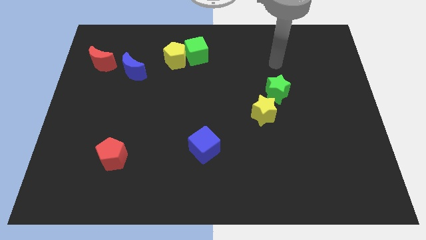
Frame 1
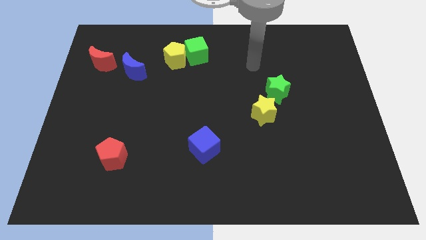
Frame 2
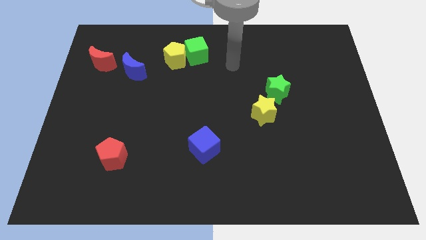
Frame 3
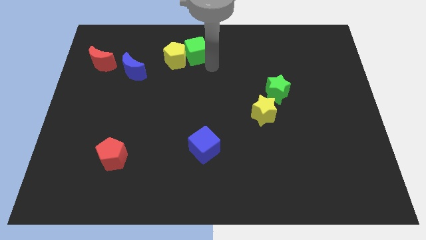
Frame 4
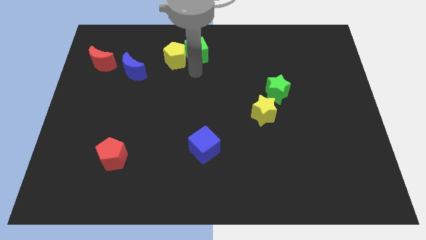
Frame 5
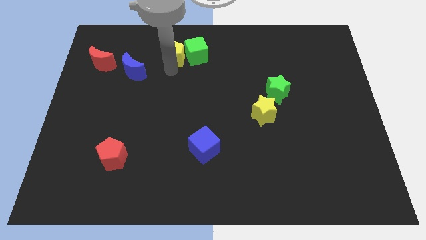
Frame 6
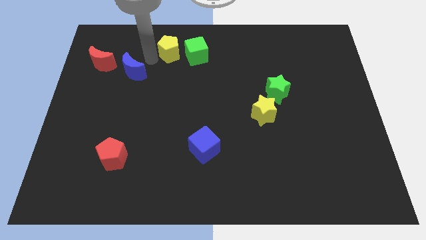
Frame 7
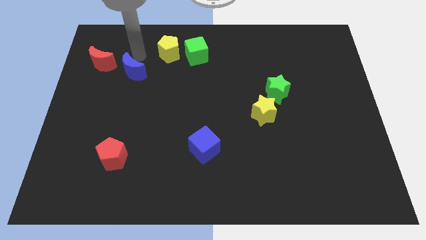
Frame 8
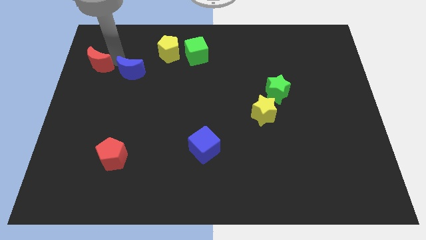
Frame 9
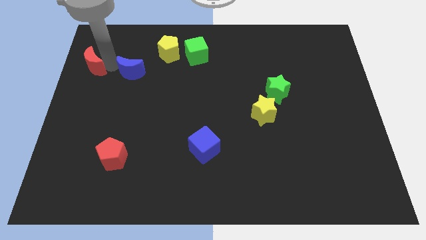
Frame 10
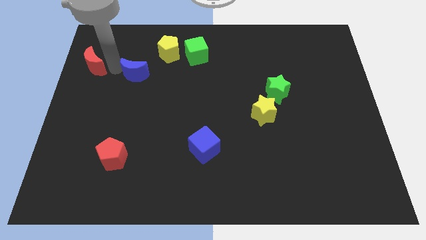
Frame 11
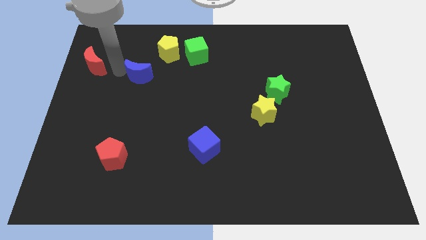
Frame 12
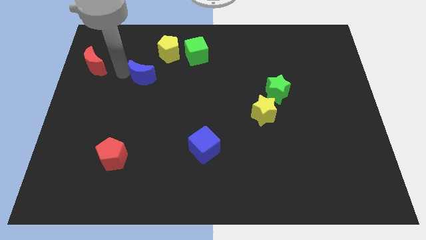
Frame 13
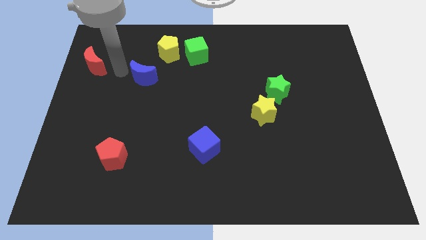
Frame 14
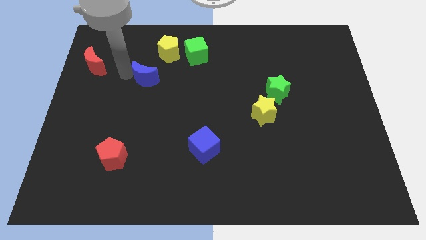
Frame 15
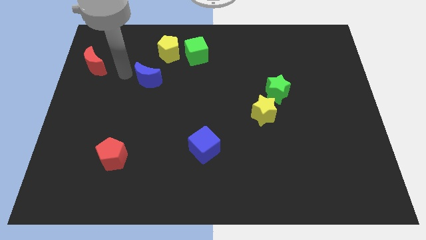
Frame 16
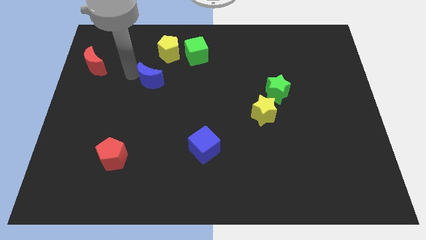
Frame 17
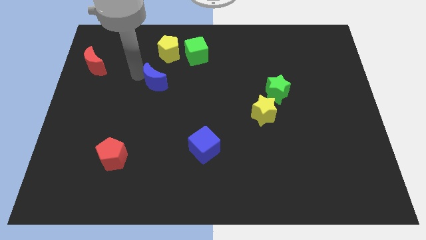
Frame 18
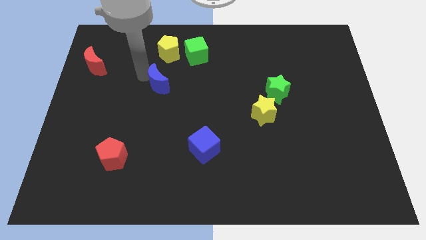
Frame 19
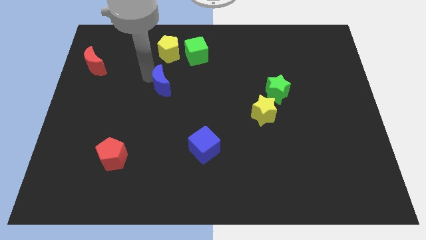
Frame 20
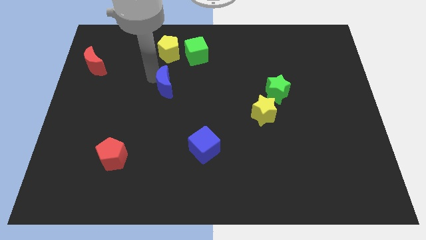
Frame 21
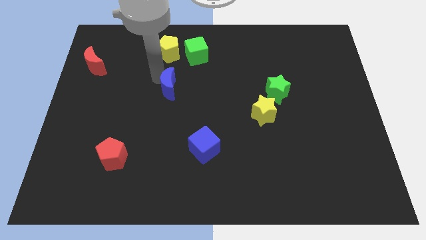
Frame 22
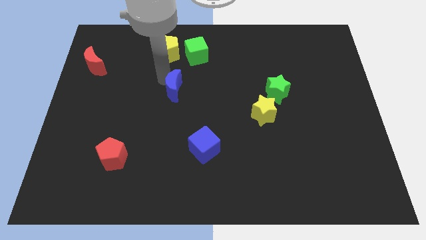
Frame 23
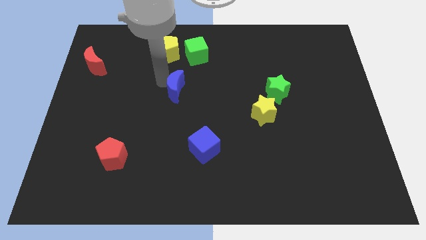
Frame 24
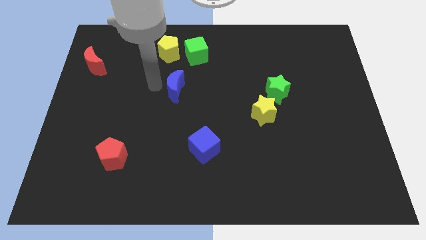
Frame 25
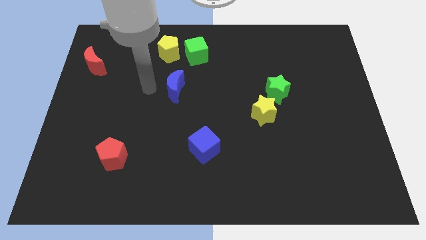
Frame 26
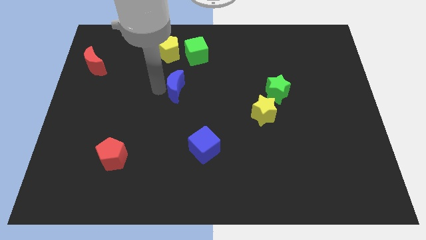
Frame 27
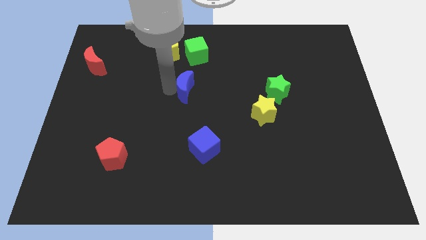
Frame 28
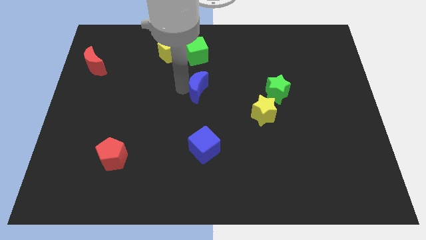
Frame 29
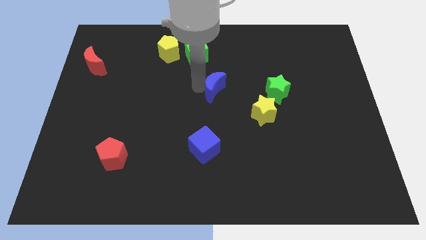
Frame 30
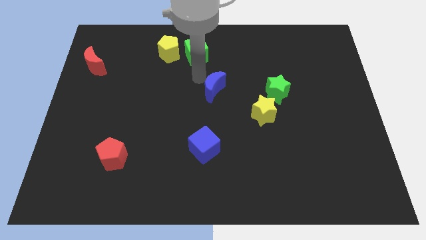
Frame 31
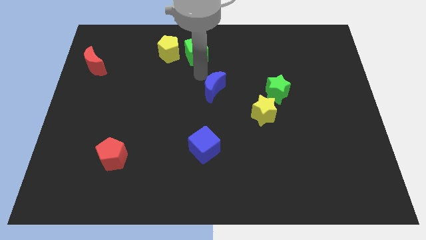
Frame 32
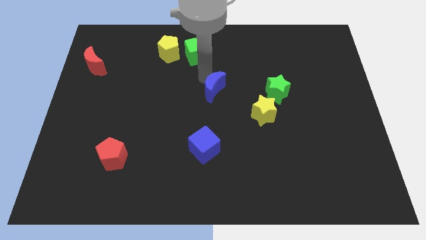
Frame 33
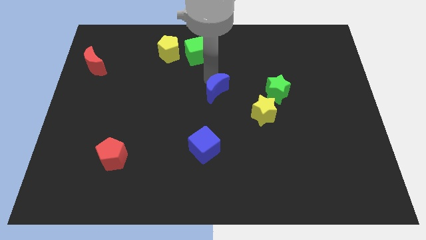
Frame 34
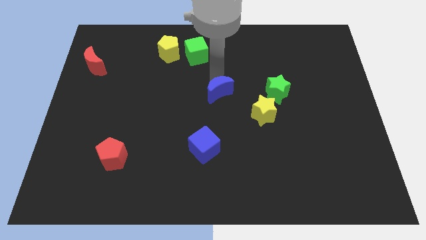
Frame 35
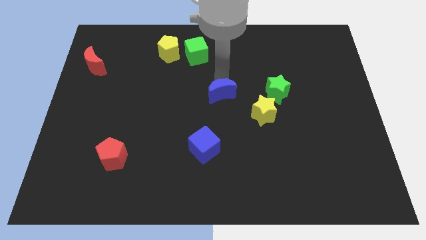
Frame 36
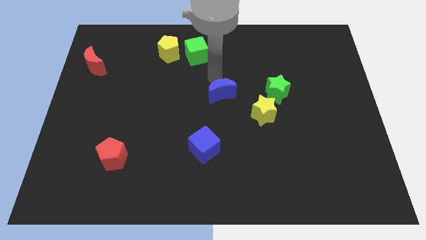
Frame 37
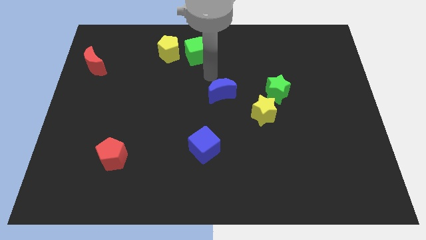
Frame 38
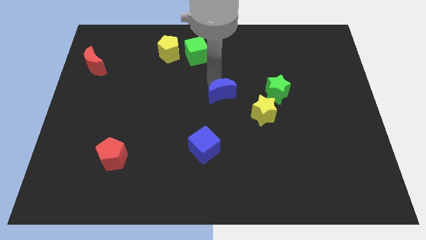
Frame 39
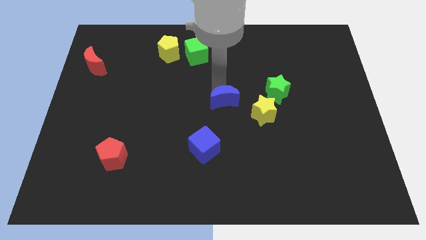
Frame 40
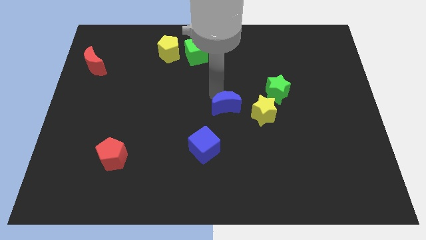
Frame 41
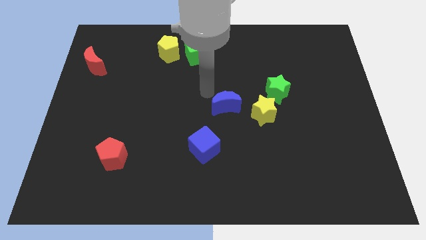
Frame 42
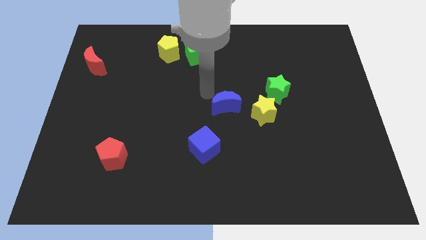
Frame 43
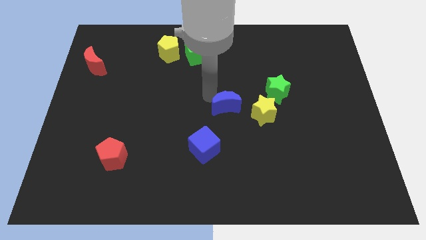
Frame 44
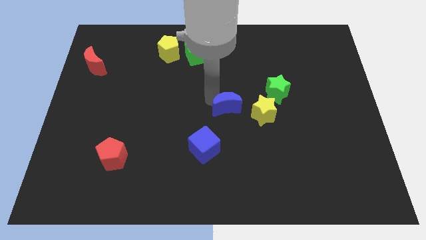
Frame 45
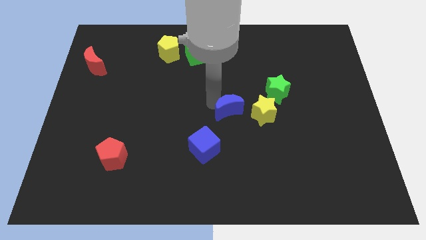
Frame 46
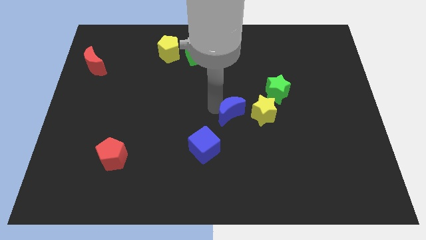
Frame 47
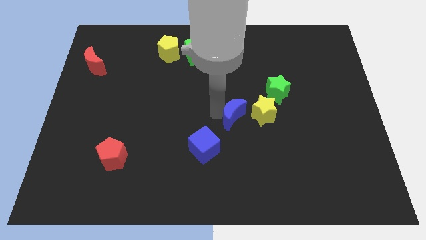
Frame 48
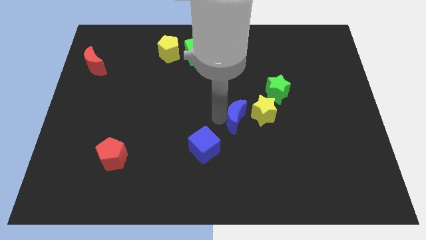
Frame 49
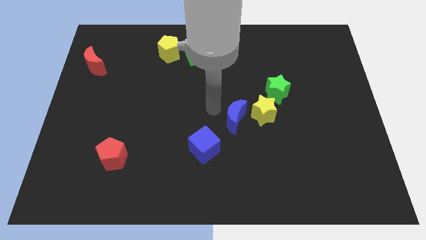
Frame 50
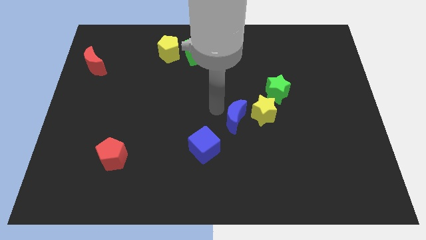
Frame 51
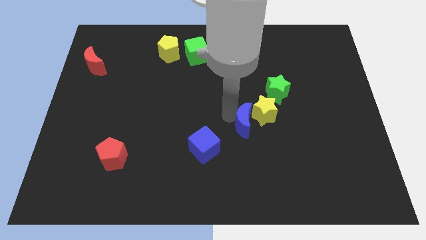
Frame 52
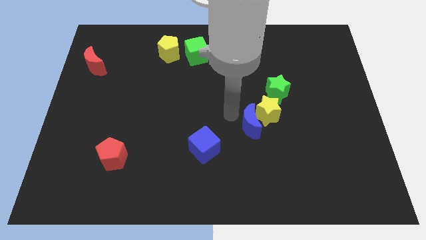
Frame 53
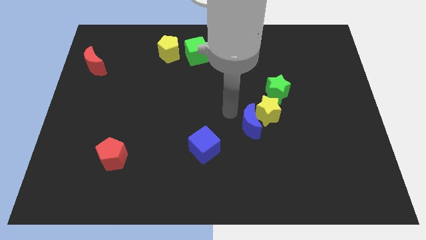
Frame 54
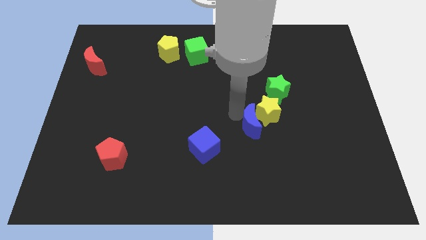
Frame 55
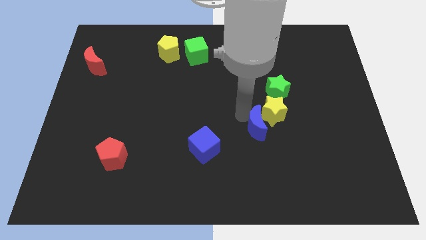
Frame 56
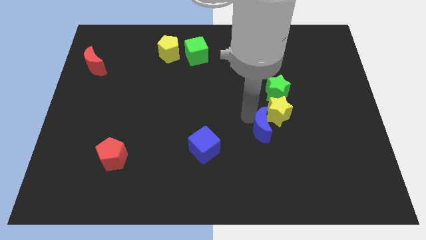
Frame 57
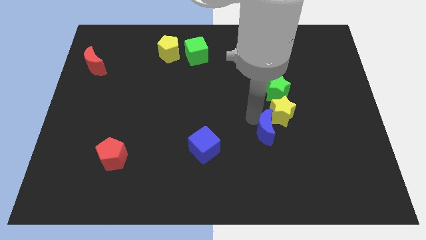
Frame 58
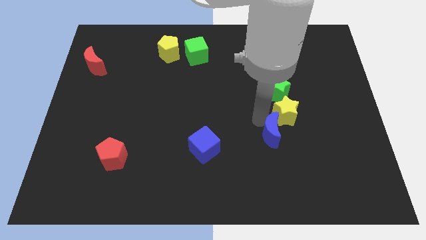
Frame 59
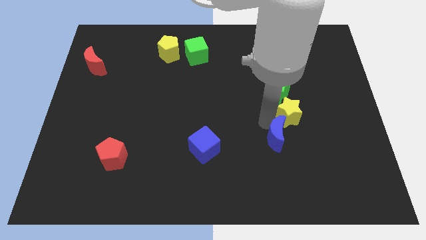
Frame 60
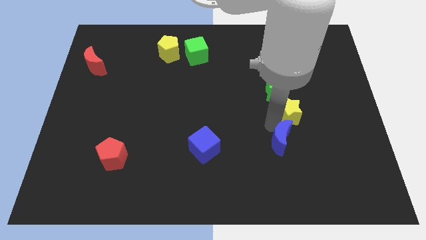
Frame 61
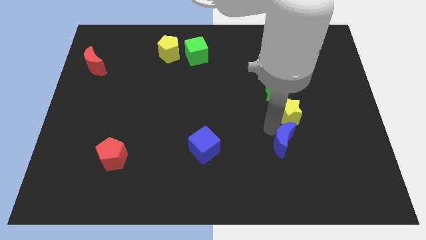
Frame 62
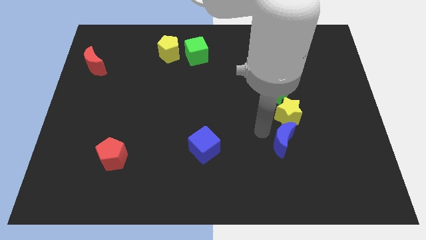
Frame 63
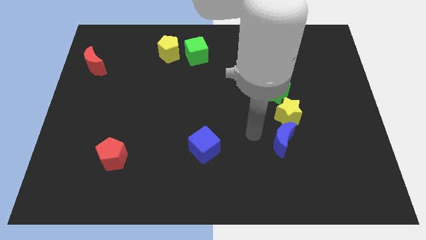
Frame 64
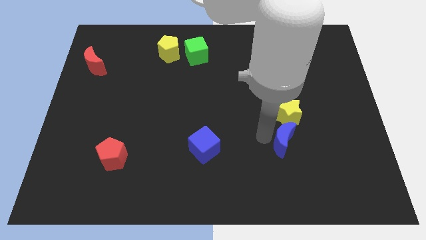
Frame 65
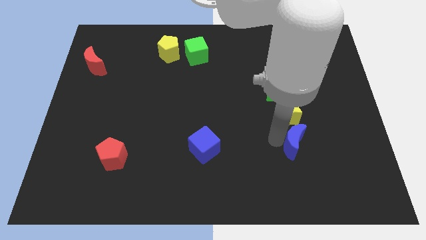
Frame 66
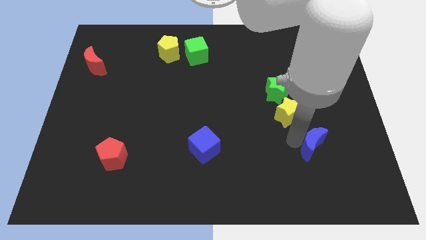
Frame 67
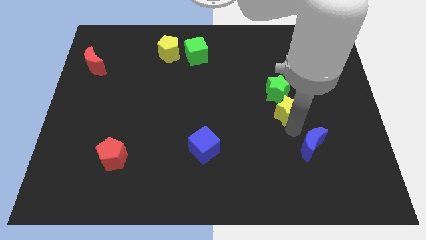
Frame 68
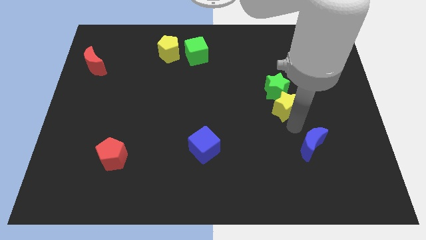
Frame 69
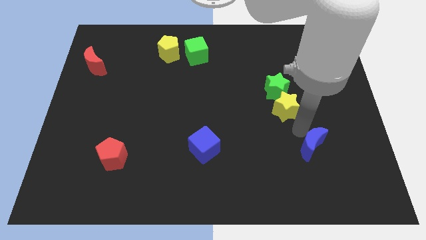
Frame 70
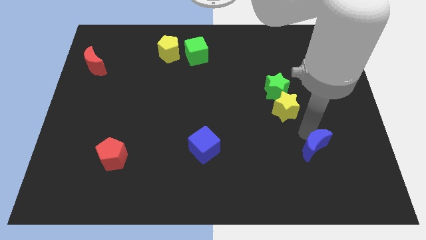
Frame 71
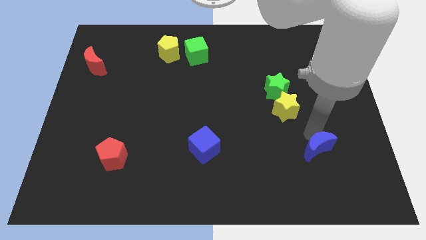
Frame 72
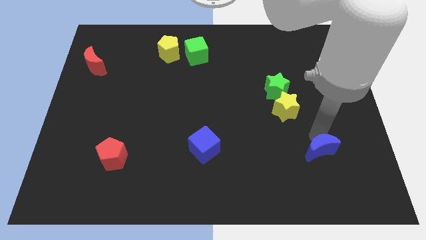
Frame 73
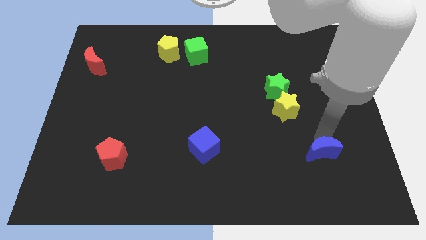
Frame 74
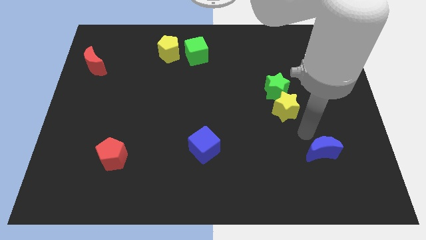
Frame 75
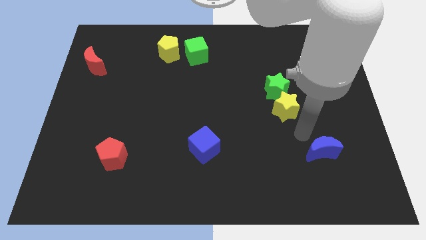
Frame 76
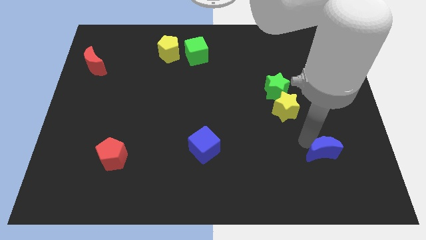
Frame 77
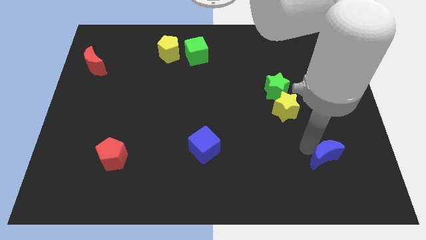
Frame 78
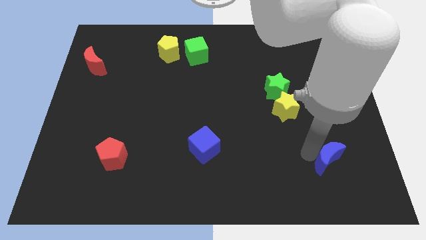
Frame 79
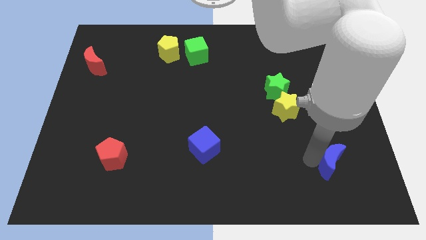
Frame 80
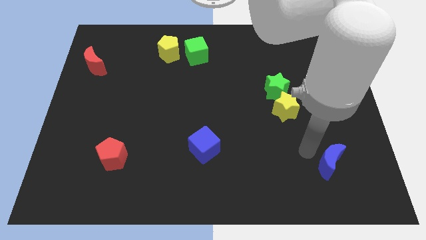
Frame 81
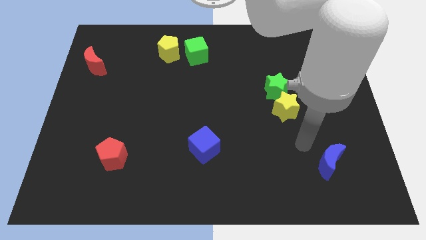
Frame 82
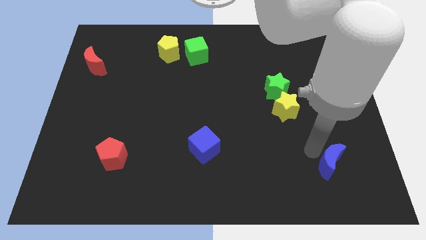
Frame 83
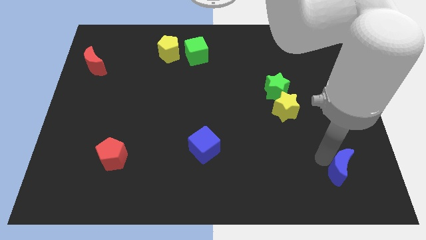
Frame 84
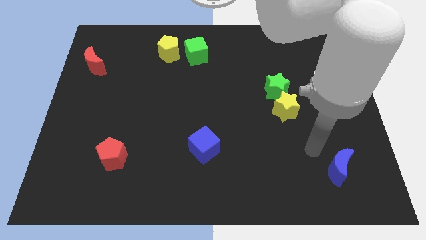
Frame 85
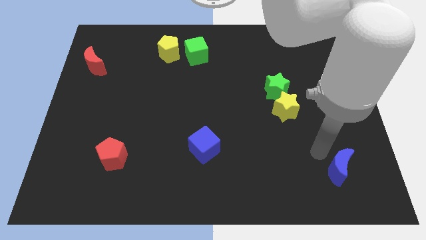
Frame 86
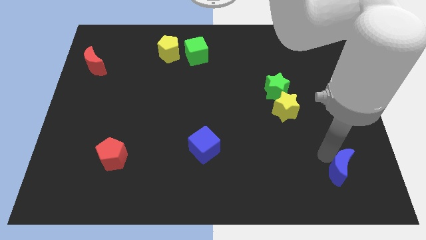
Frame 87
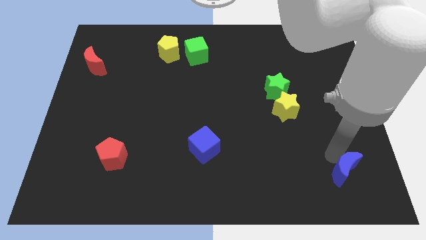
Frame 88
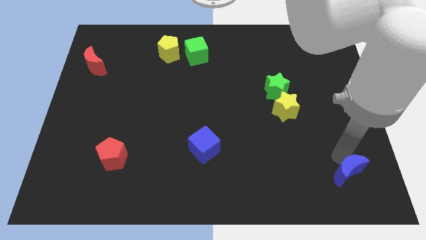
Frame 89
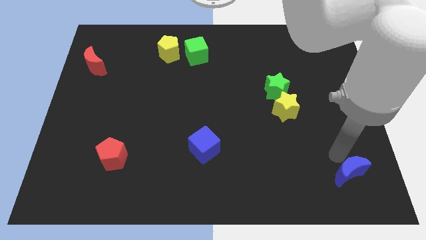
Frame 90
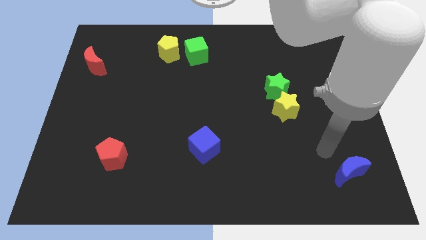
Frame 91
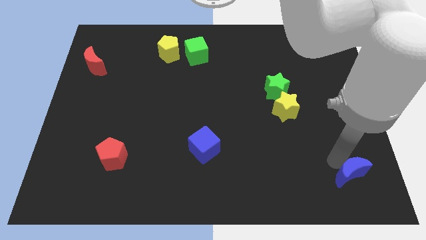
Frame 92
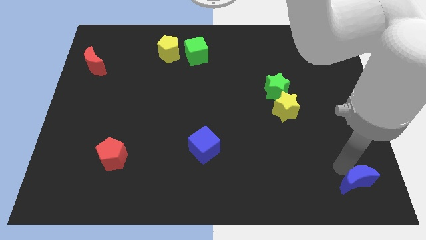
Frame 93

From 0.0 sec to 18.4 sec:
move the blue moon to the lower right corner
